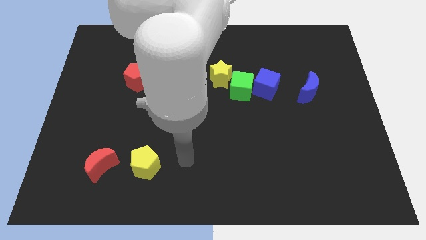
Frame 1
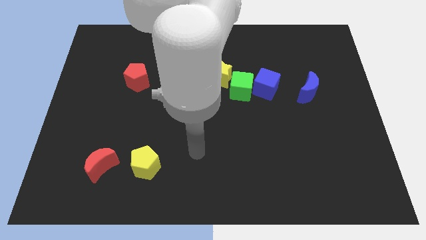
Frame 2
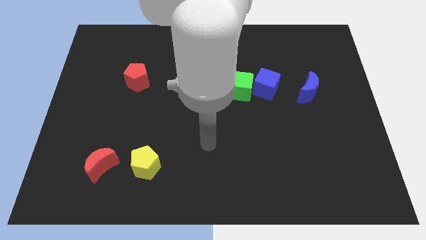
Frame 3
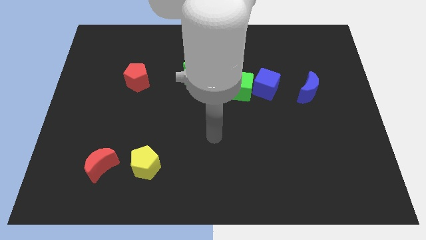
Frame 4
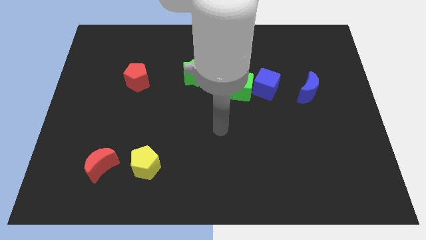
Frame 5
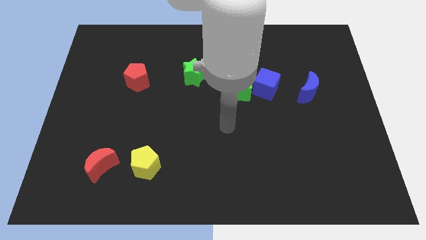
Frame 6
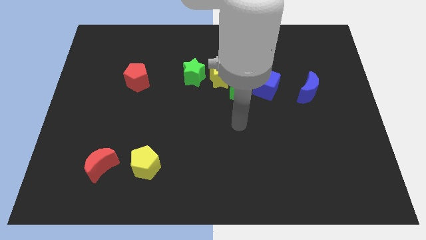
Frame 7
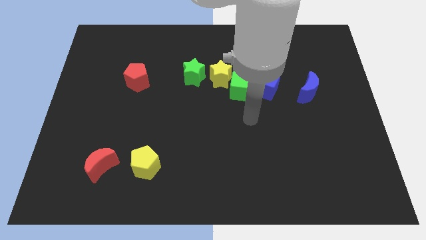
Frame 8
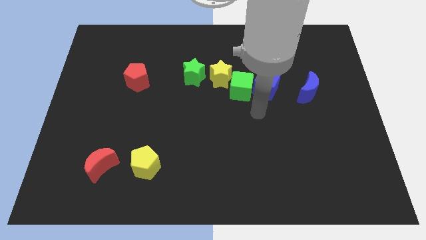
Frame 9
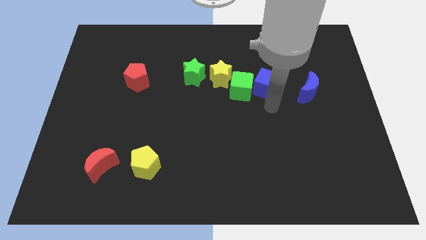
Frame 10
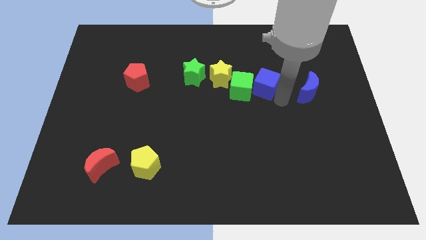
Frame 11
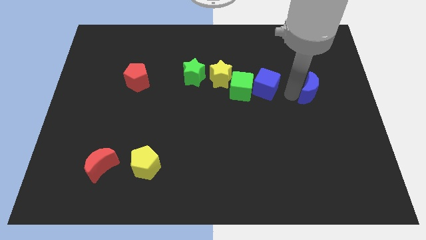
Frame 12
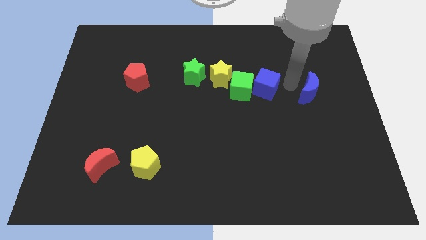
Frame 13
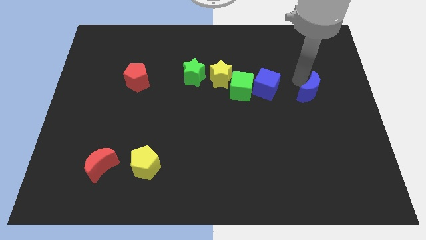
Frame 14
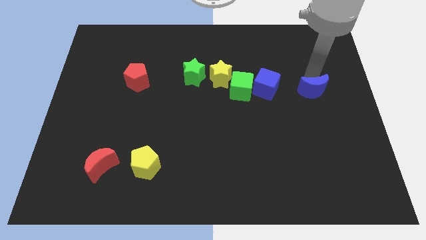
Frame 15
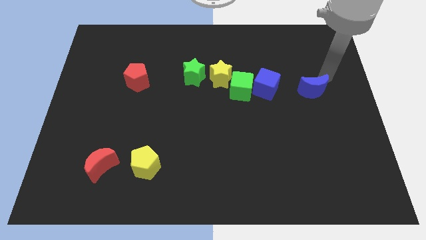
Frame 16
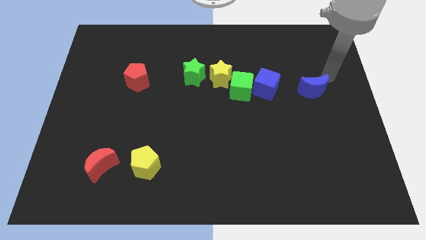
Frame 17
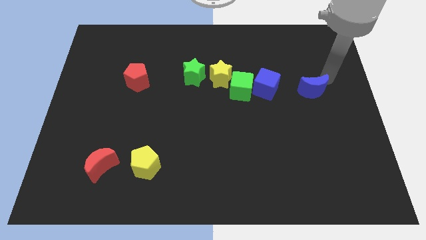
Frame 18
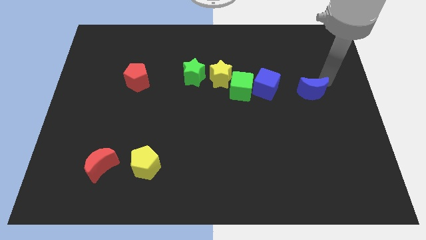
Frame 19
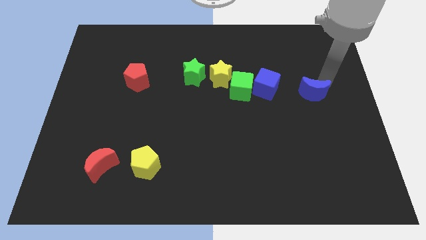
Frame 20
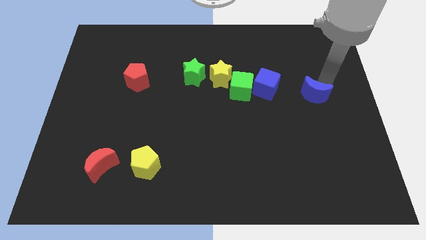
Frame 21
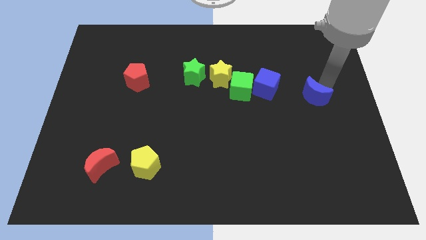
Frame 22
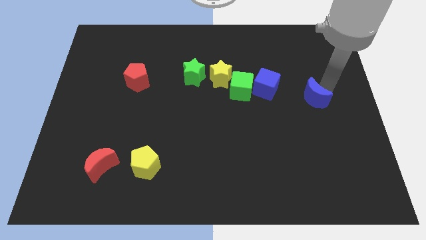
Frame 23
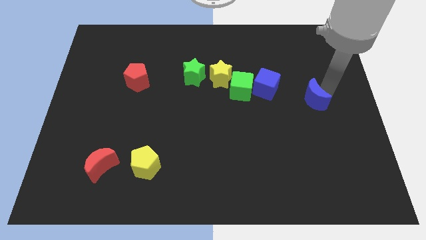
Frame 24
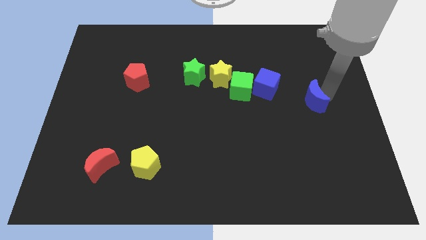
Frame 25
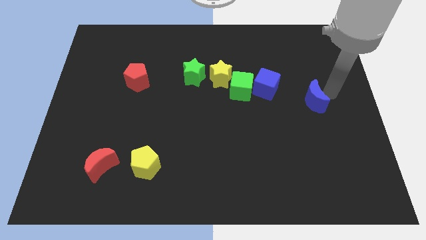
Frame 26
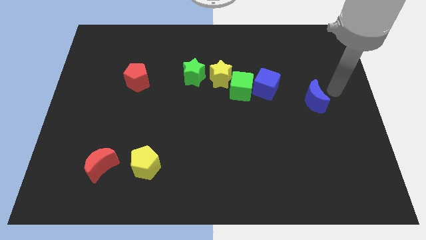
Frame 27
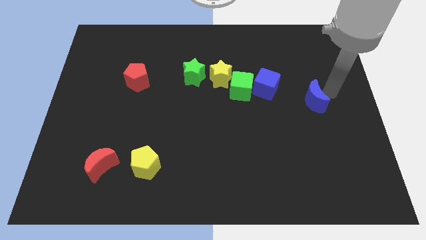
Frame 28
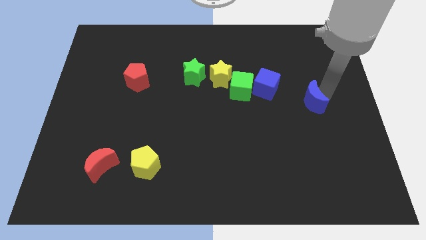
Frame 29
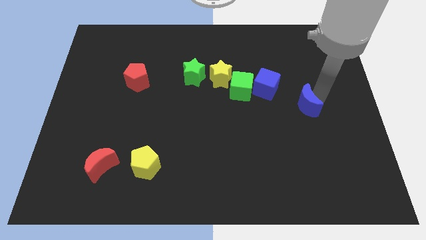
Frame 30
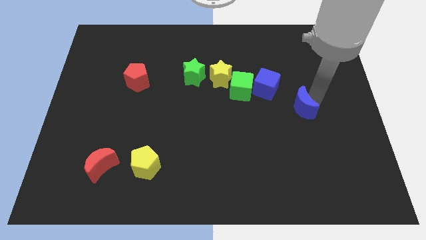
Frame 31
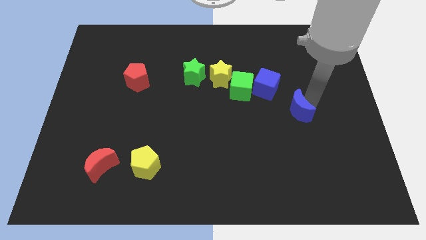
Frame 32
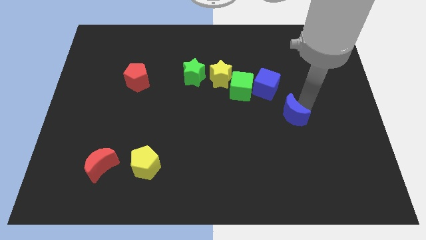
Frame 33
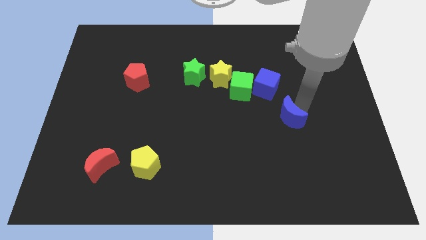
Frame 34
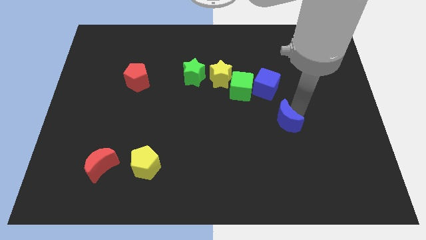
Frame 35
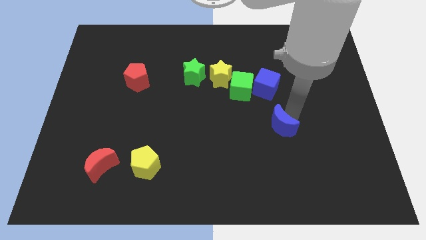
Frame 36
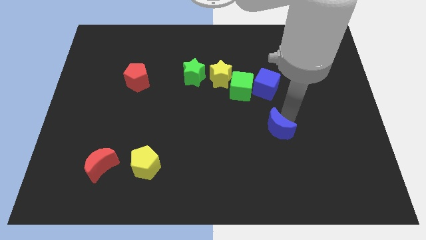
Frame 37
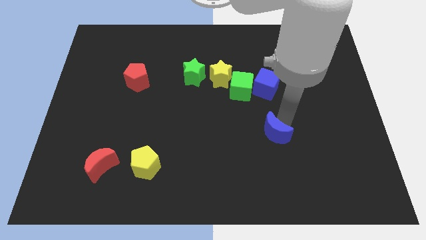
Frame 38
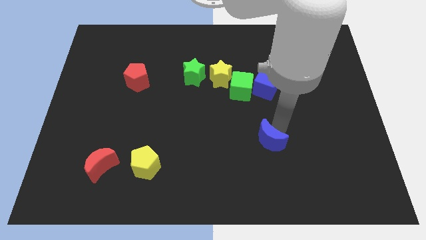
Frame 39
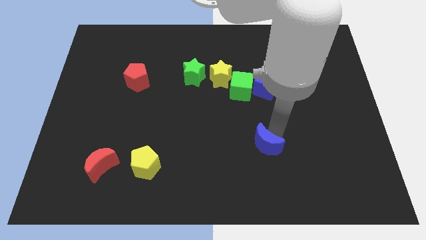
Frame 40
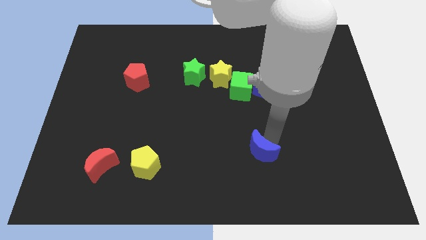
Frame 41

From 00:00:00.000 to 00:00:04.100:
move the blue moon downwards and left

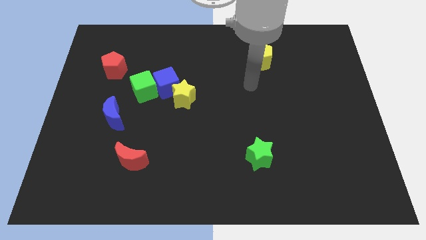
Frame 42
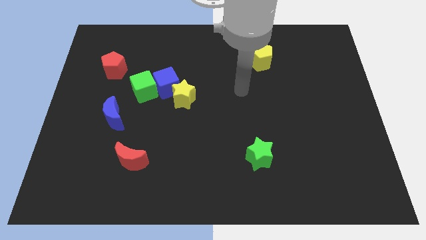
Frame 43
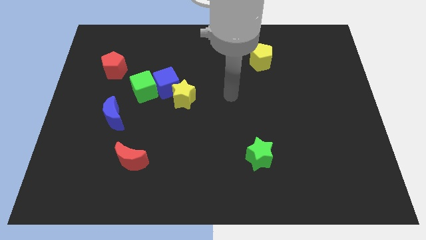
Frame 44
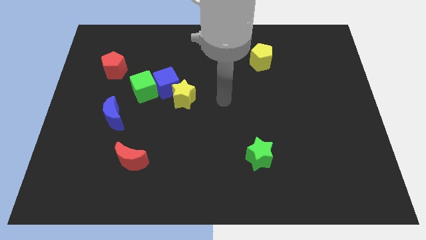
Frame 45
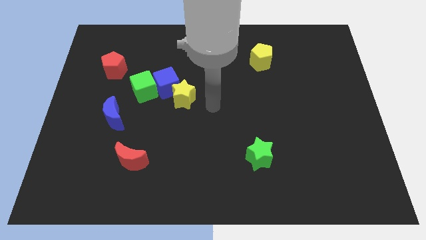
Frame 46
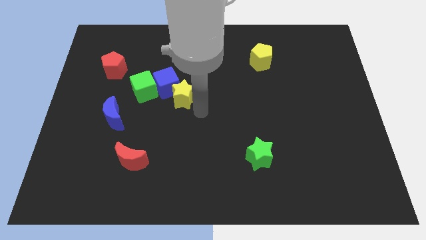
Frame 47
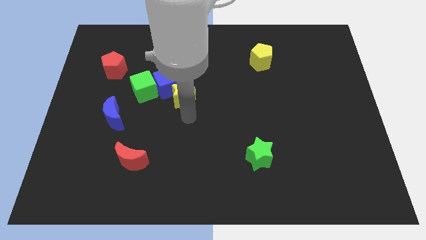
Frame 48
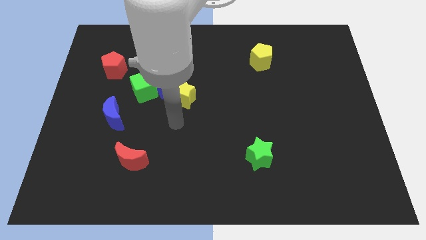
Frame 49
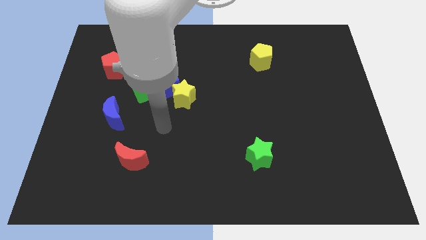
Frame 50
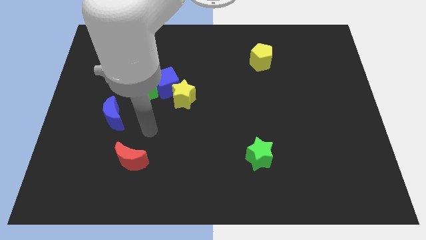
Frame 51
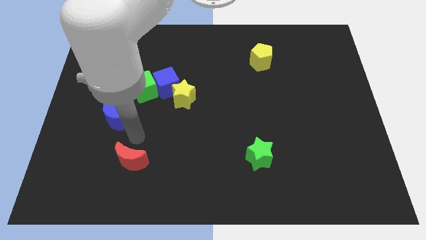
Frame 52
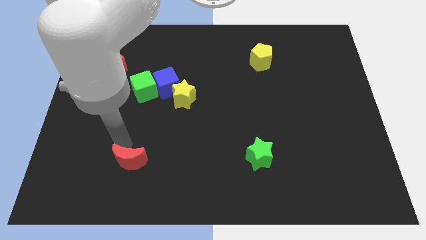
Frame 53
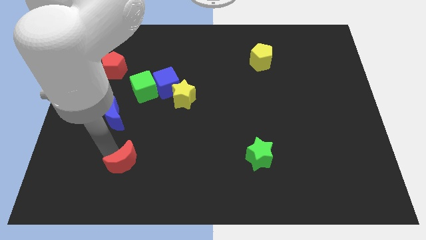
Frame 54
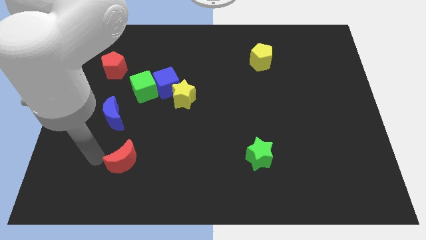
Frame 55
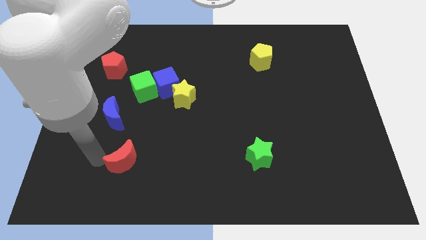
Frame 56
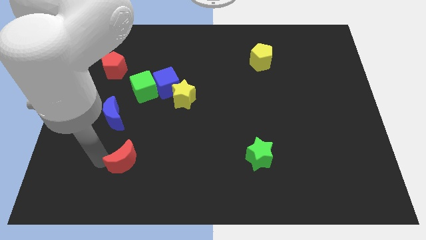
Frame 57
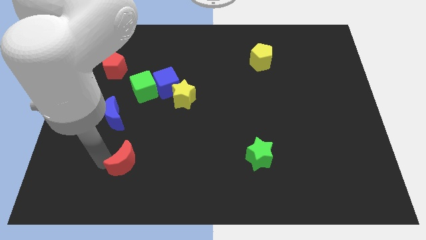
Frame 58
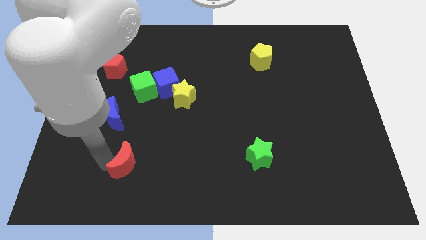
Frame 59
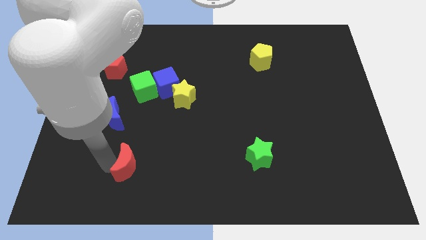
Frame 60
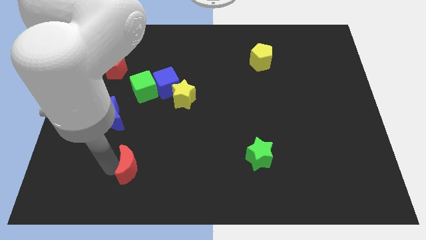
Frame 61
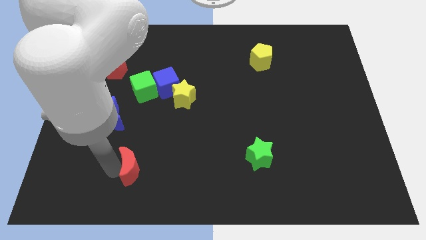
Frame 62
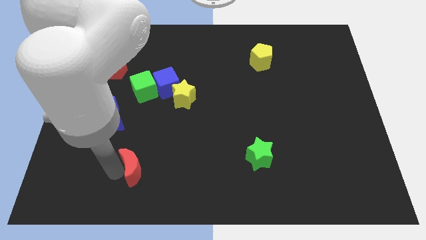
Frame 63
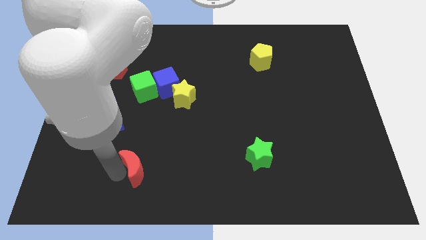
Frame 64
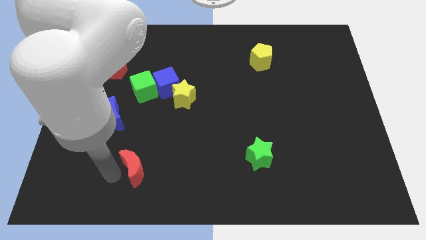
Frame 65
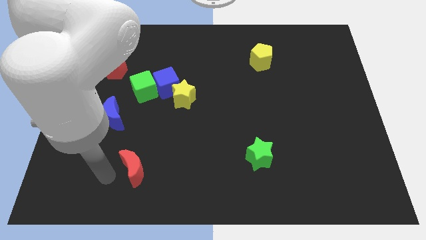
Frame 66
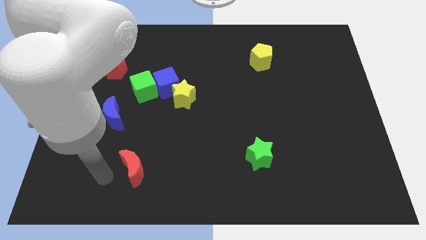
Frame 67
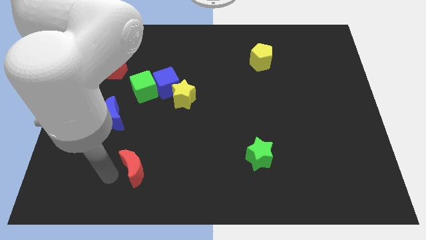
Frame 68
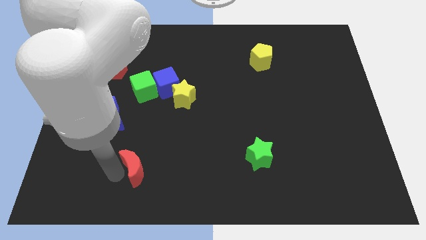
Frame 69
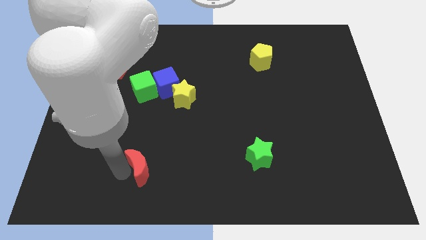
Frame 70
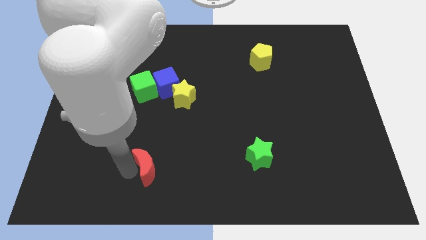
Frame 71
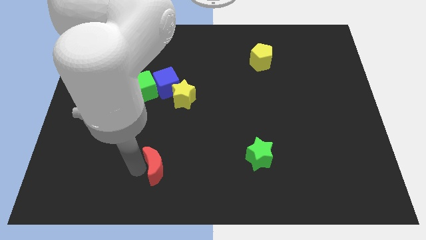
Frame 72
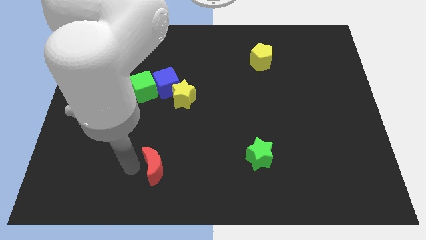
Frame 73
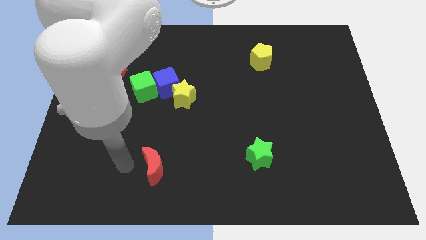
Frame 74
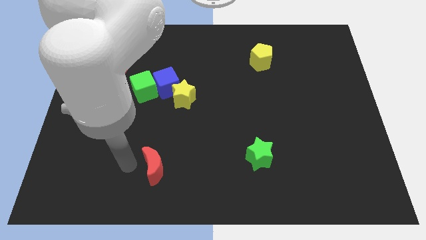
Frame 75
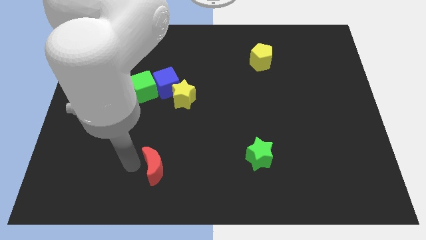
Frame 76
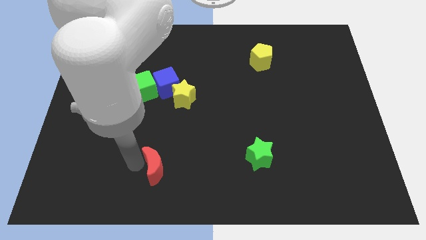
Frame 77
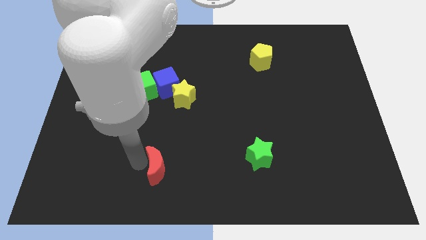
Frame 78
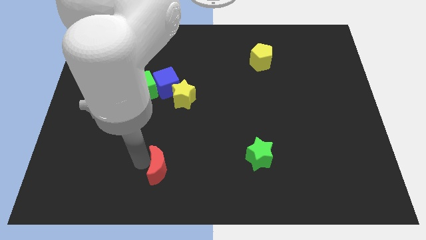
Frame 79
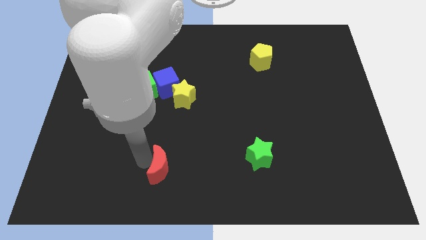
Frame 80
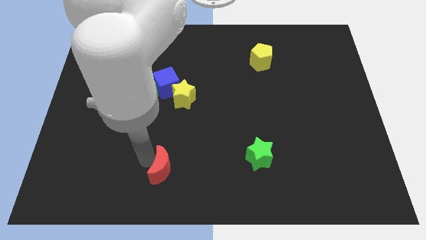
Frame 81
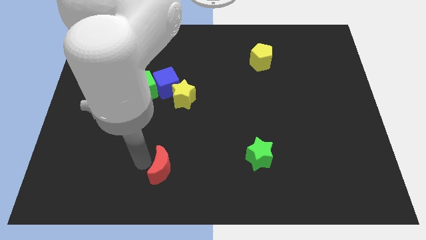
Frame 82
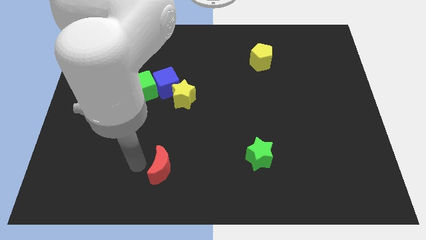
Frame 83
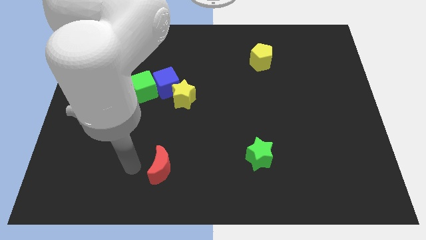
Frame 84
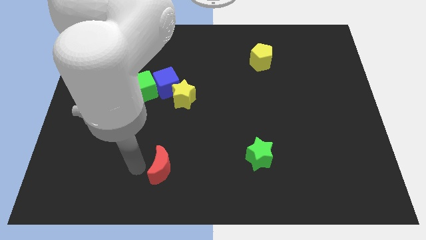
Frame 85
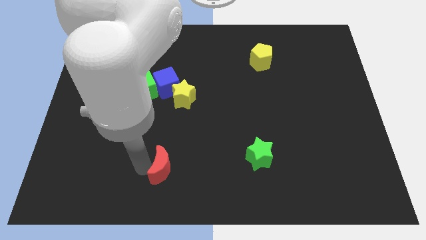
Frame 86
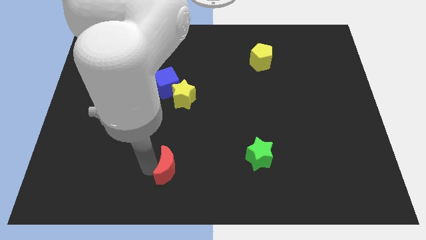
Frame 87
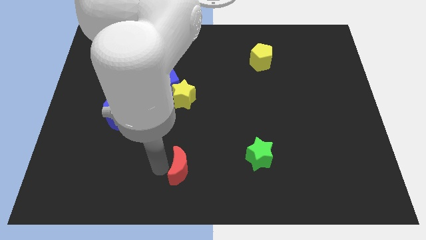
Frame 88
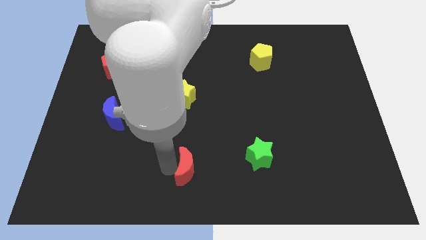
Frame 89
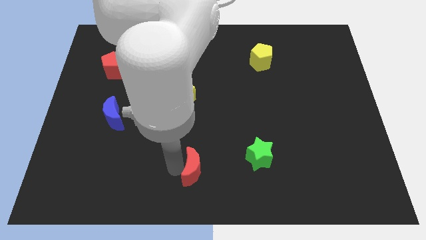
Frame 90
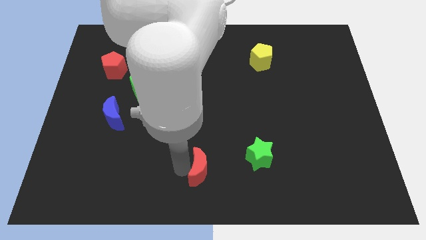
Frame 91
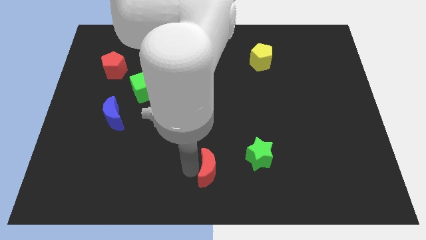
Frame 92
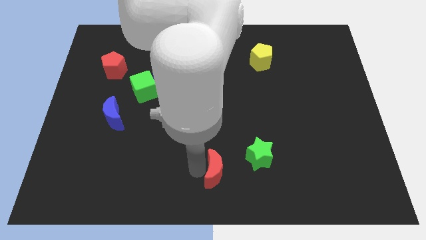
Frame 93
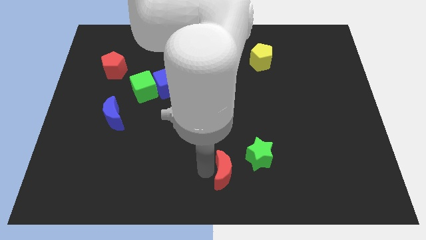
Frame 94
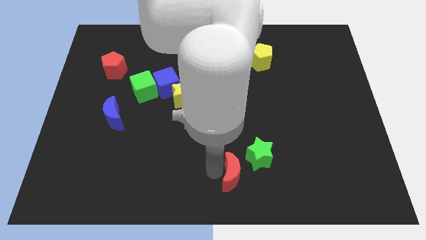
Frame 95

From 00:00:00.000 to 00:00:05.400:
move the red moon right
